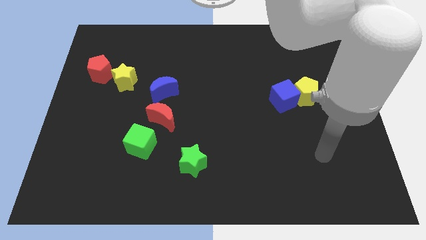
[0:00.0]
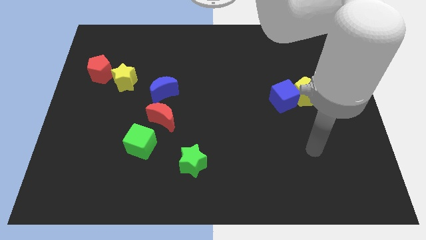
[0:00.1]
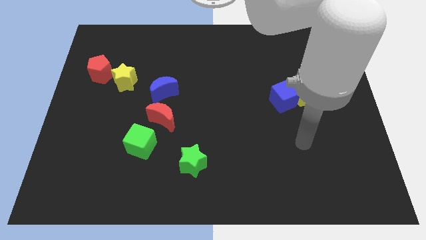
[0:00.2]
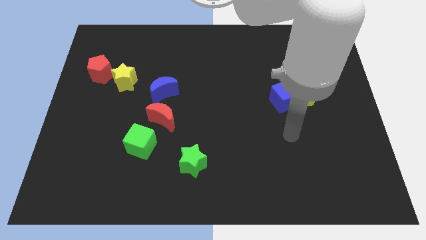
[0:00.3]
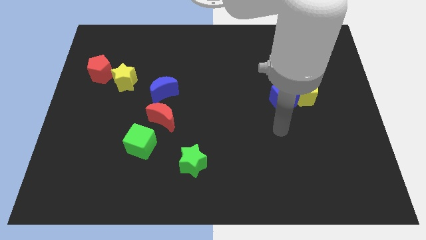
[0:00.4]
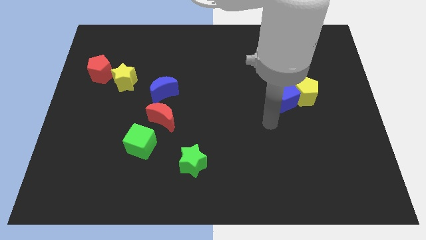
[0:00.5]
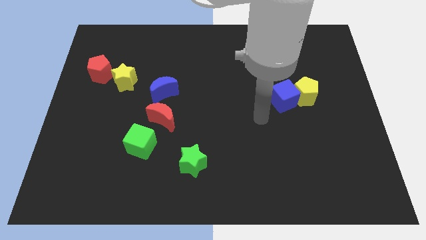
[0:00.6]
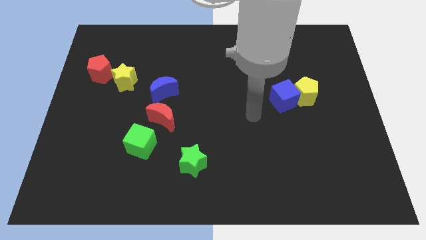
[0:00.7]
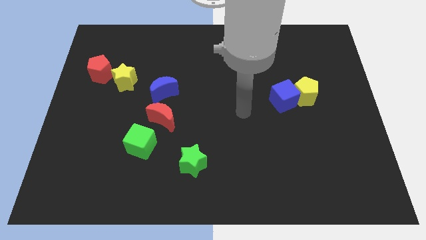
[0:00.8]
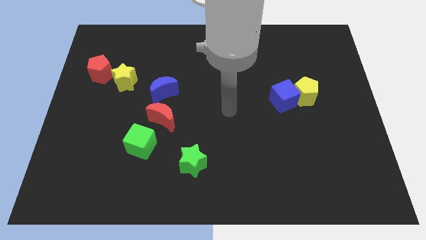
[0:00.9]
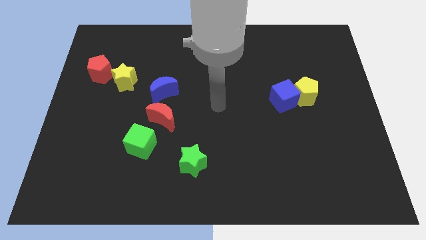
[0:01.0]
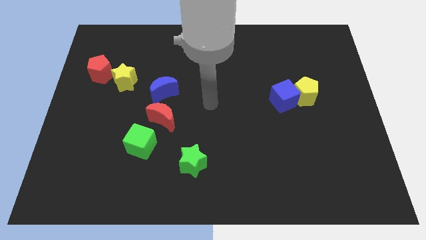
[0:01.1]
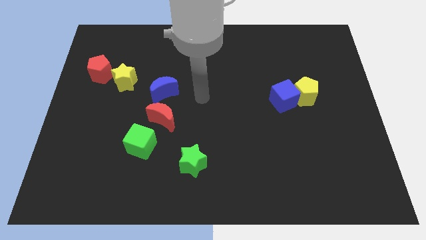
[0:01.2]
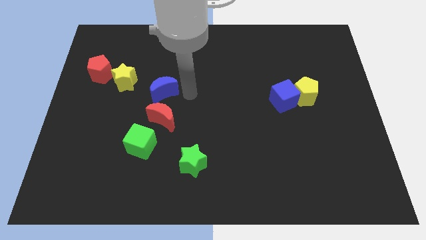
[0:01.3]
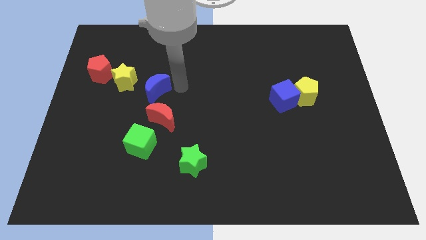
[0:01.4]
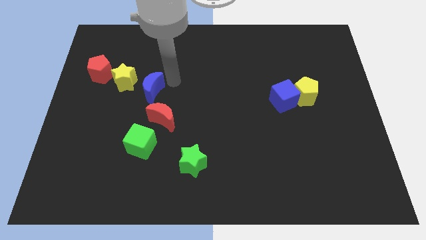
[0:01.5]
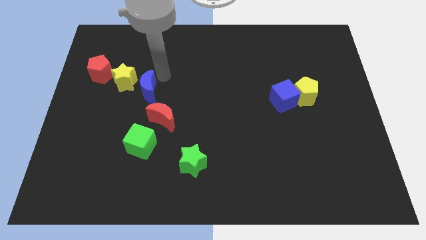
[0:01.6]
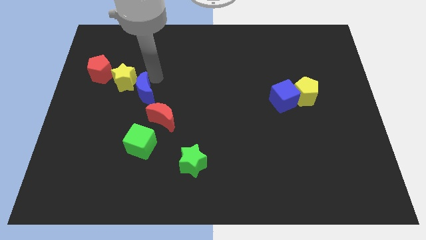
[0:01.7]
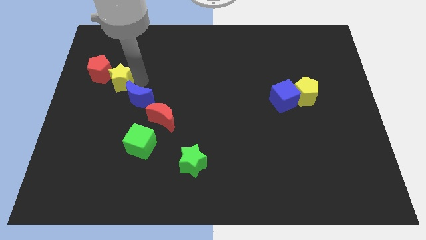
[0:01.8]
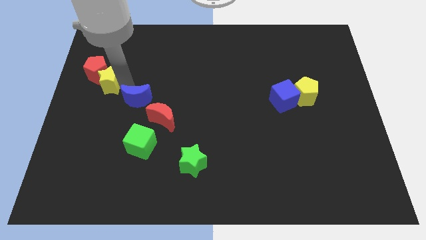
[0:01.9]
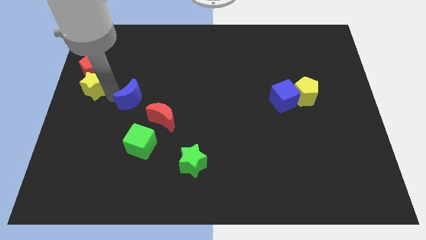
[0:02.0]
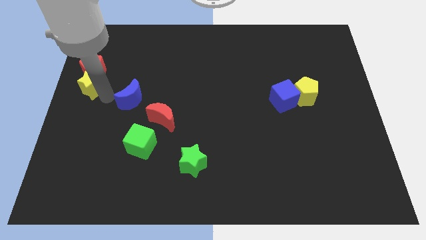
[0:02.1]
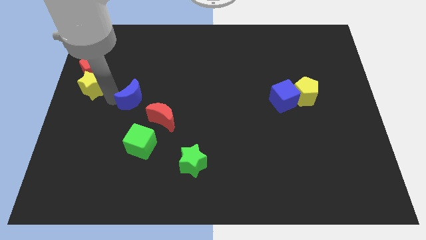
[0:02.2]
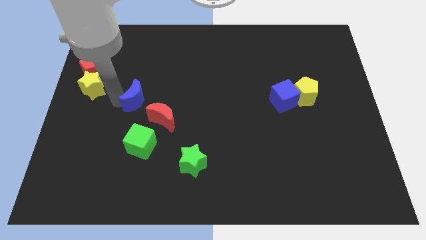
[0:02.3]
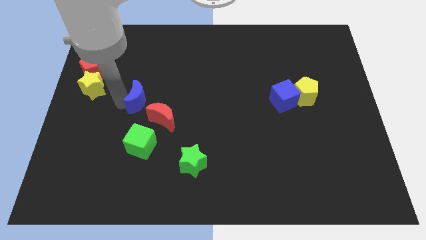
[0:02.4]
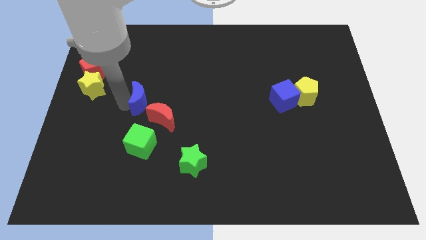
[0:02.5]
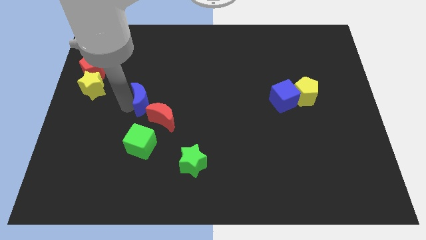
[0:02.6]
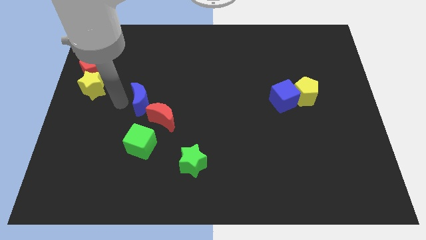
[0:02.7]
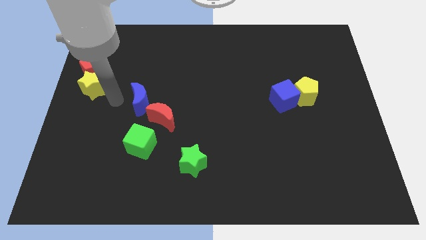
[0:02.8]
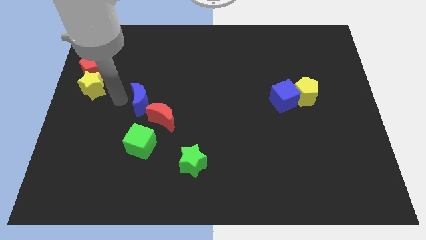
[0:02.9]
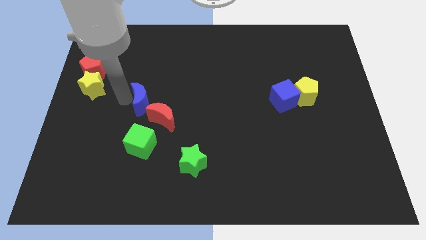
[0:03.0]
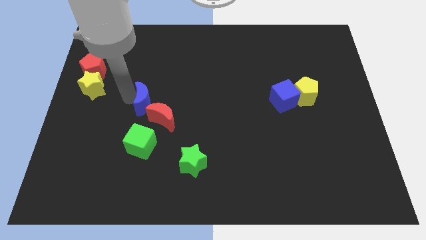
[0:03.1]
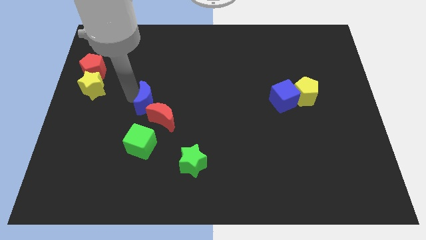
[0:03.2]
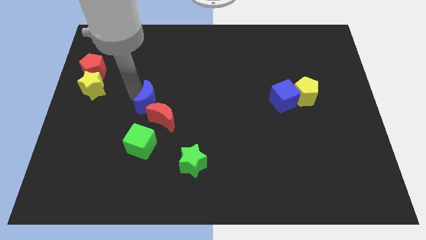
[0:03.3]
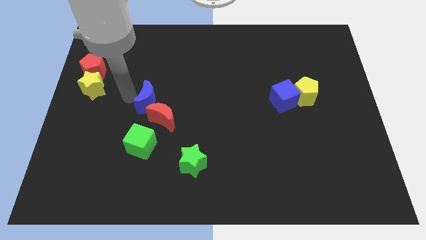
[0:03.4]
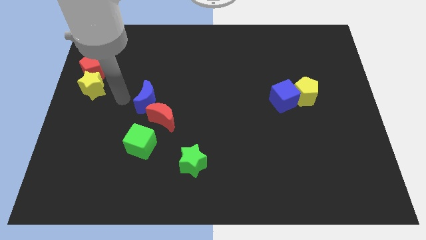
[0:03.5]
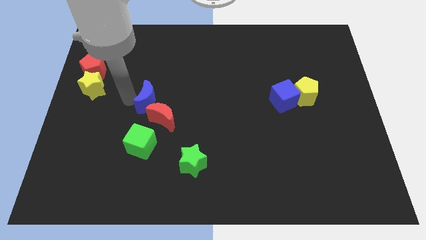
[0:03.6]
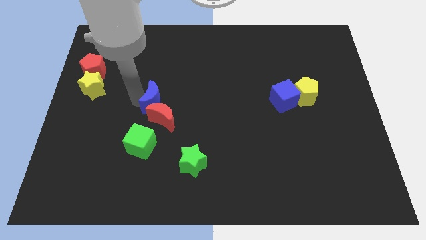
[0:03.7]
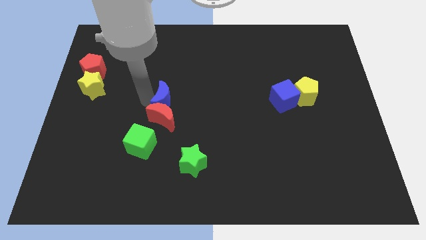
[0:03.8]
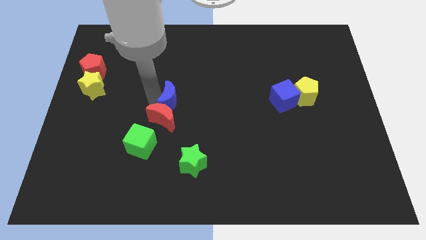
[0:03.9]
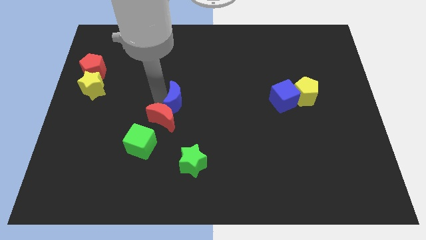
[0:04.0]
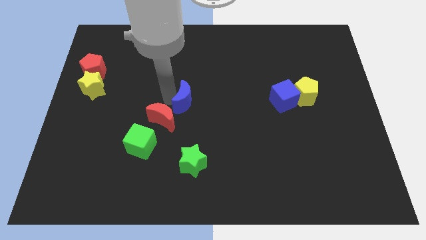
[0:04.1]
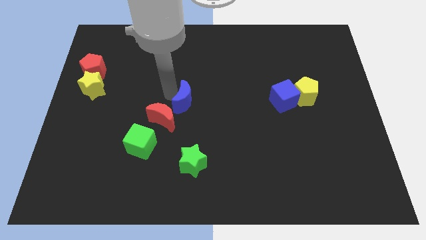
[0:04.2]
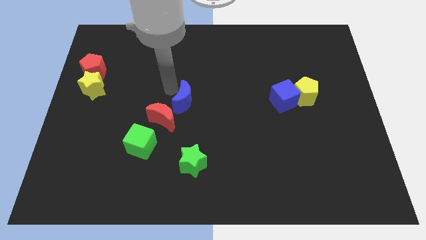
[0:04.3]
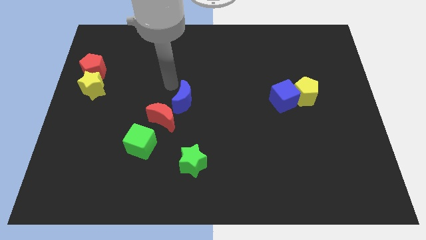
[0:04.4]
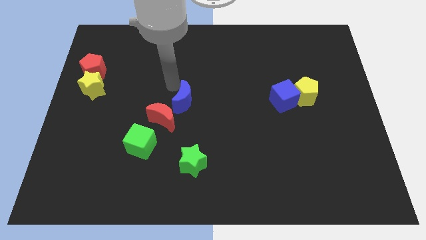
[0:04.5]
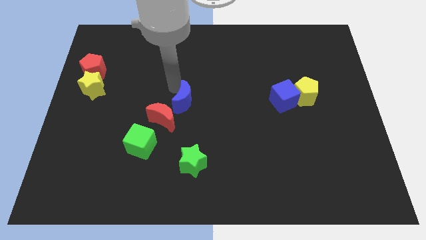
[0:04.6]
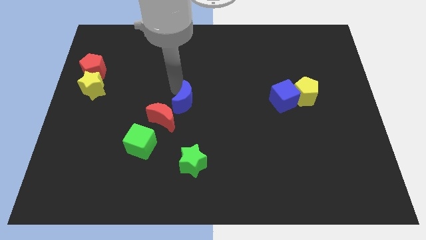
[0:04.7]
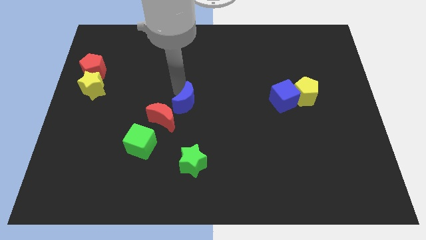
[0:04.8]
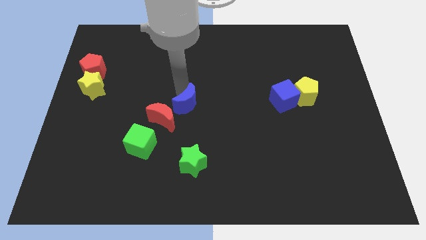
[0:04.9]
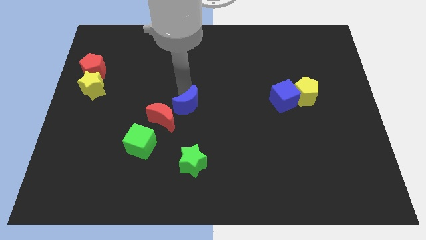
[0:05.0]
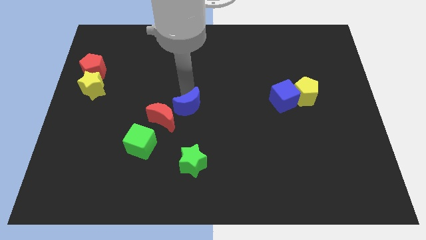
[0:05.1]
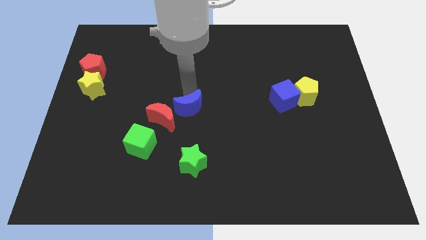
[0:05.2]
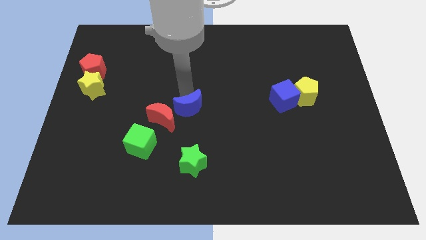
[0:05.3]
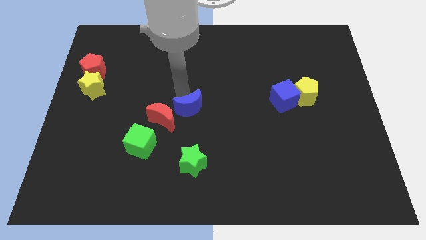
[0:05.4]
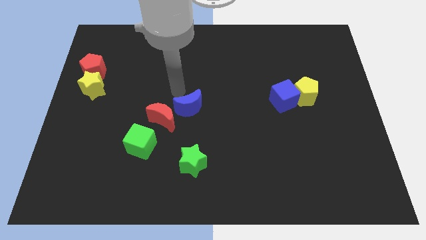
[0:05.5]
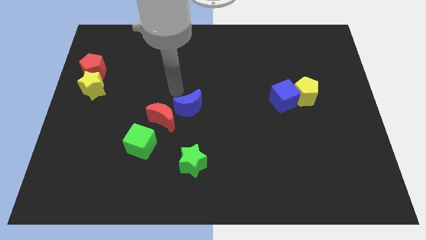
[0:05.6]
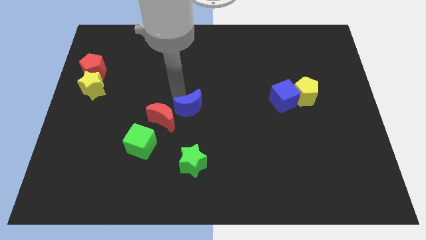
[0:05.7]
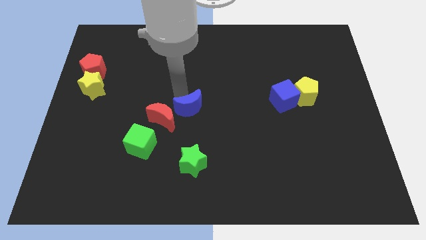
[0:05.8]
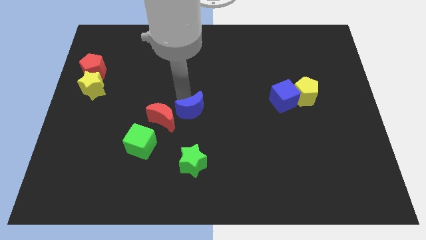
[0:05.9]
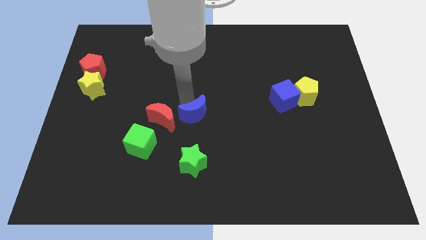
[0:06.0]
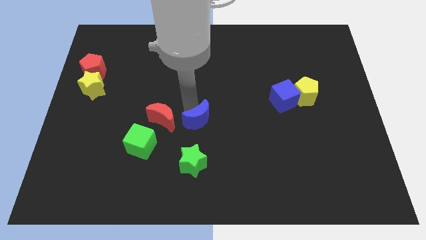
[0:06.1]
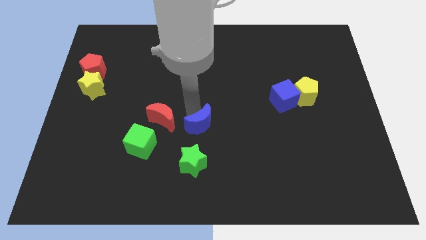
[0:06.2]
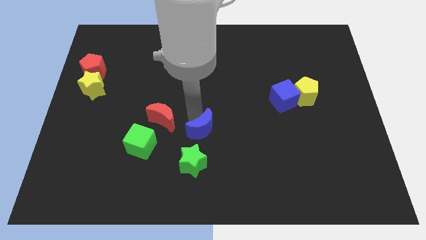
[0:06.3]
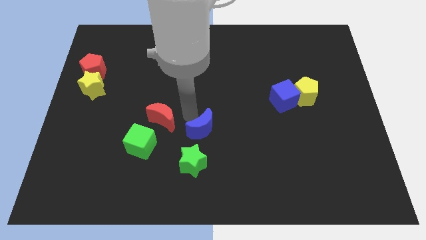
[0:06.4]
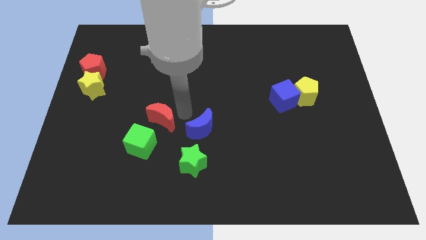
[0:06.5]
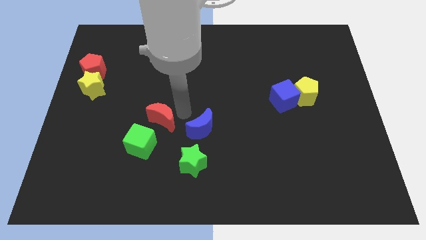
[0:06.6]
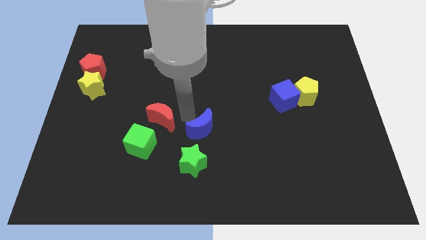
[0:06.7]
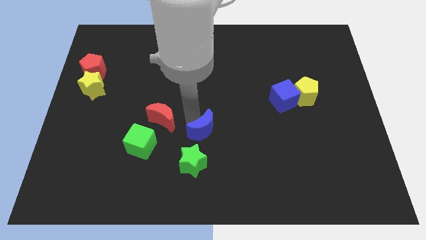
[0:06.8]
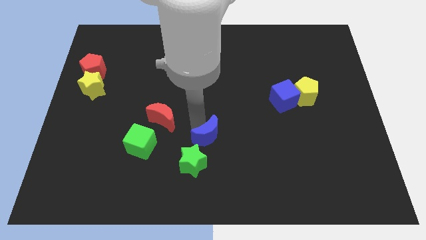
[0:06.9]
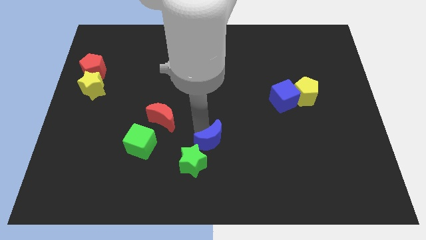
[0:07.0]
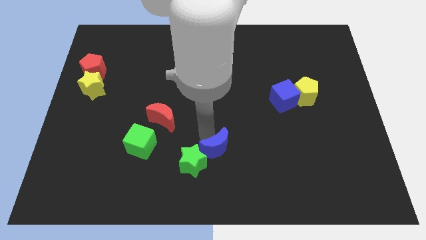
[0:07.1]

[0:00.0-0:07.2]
slide the blue moon down and to the right

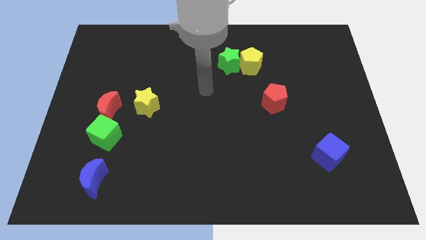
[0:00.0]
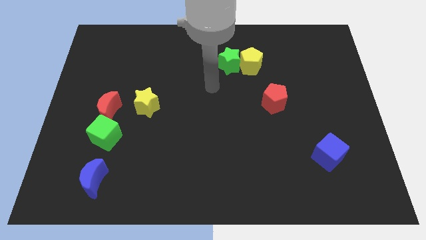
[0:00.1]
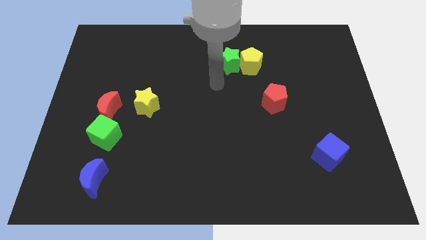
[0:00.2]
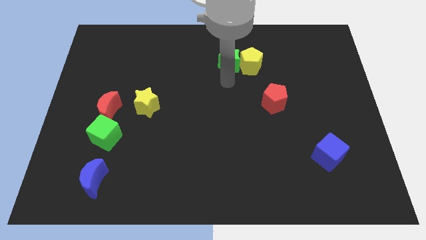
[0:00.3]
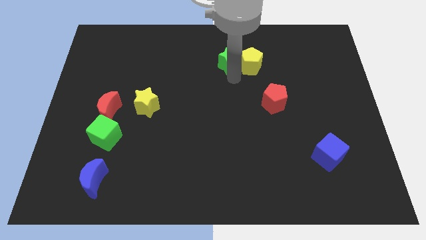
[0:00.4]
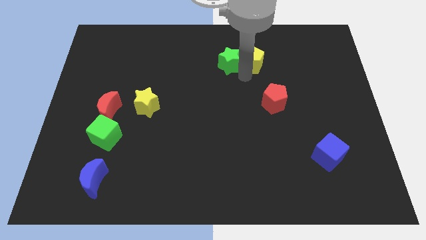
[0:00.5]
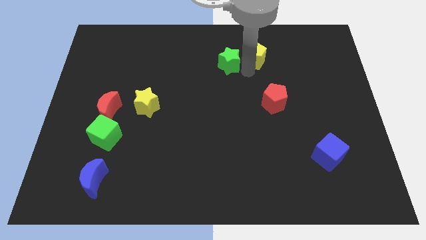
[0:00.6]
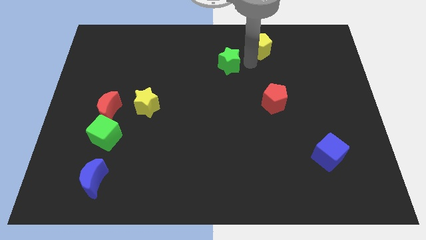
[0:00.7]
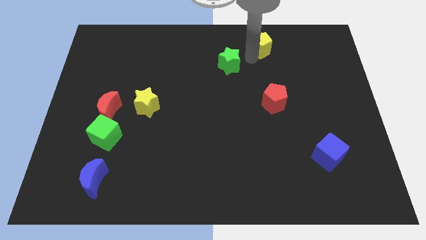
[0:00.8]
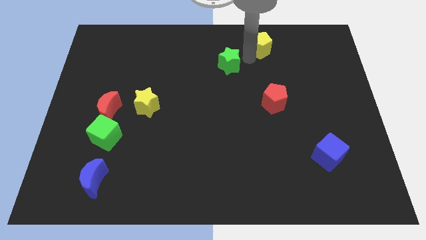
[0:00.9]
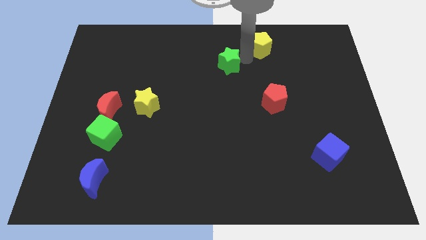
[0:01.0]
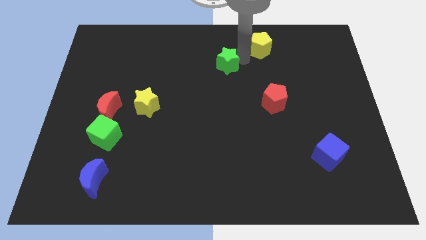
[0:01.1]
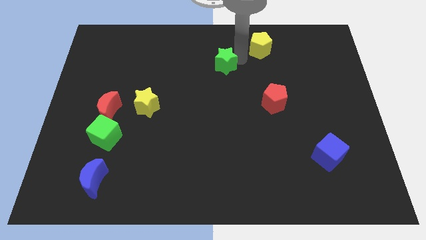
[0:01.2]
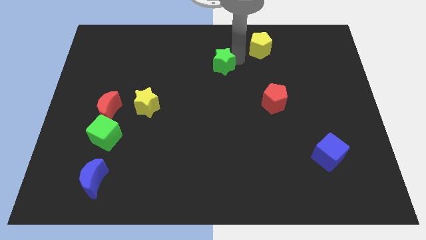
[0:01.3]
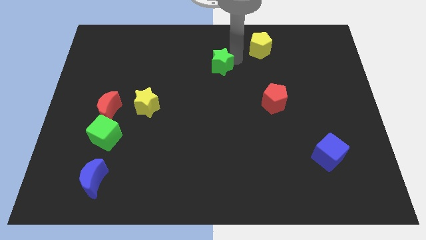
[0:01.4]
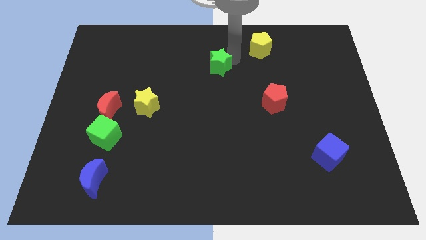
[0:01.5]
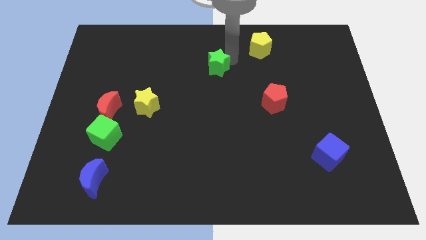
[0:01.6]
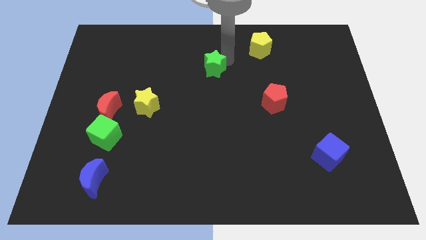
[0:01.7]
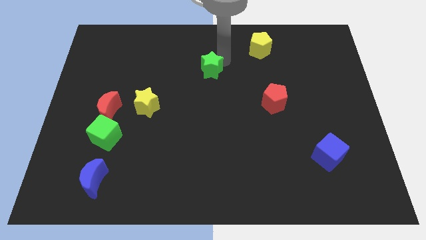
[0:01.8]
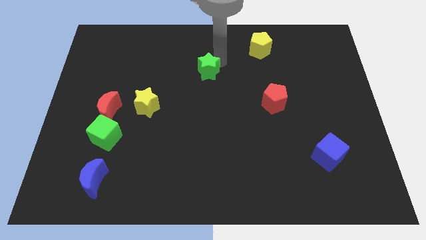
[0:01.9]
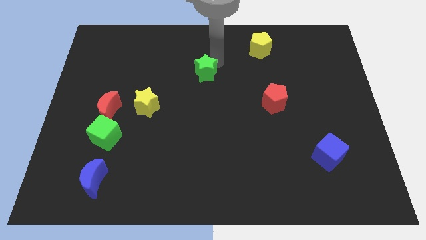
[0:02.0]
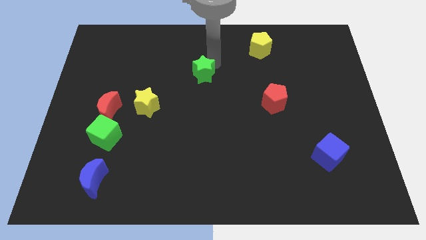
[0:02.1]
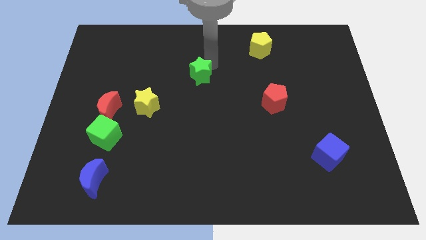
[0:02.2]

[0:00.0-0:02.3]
slightly move the green star downwards and to the left
